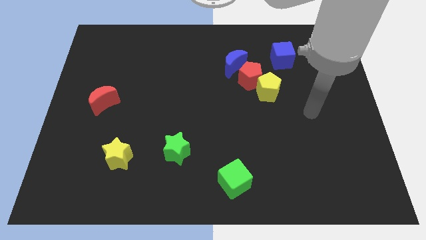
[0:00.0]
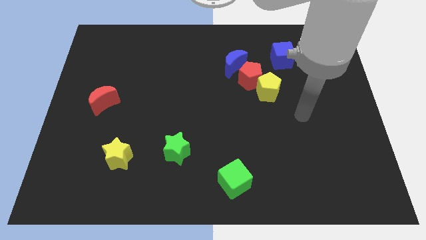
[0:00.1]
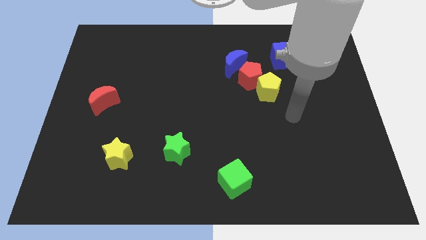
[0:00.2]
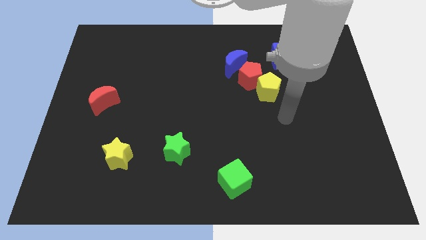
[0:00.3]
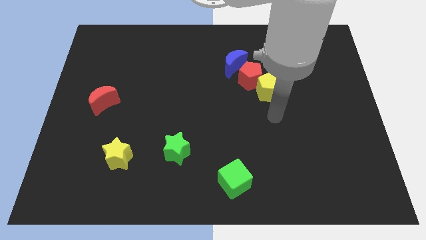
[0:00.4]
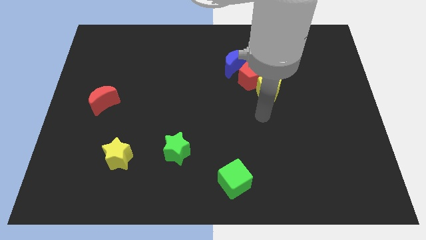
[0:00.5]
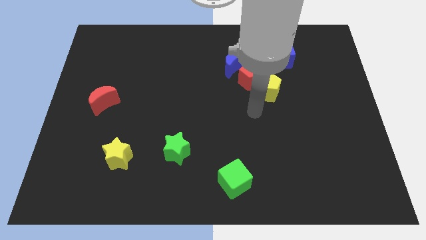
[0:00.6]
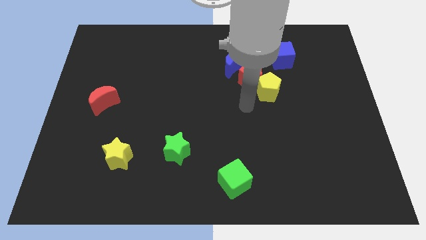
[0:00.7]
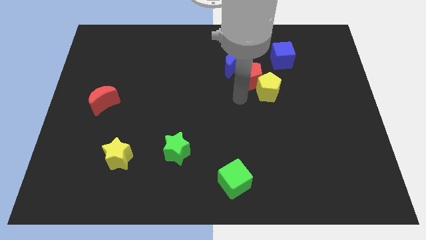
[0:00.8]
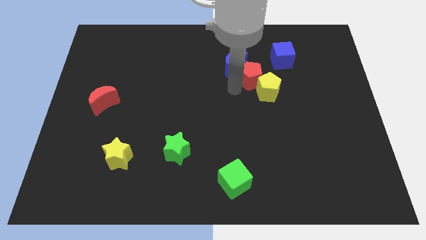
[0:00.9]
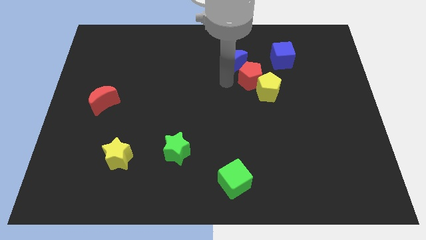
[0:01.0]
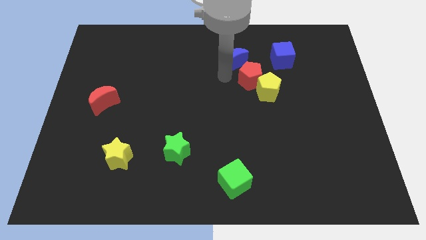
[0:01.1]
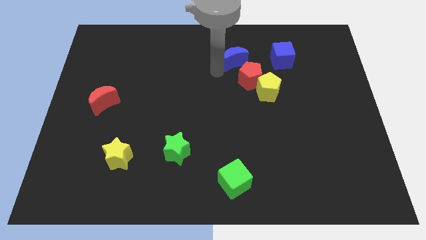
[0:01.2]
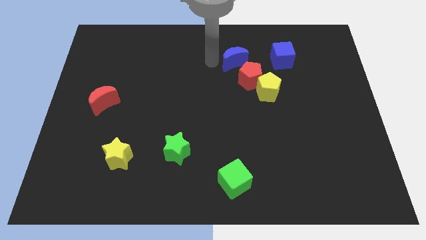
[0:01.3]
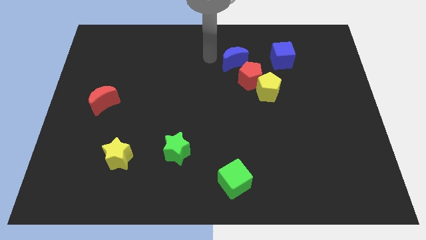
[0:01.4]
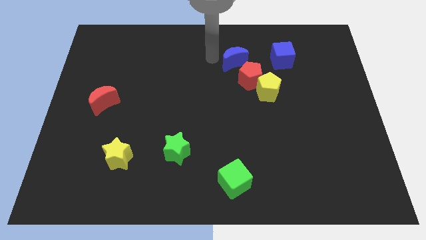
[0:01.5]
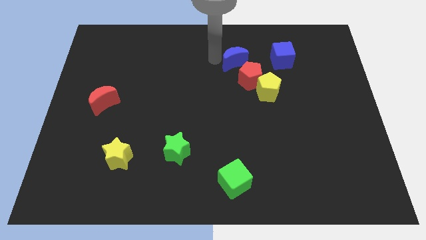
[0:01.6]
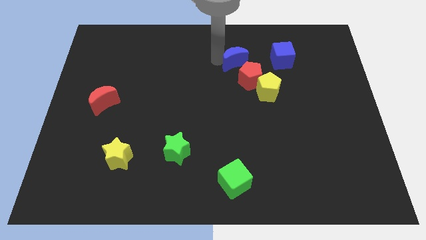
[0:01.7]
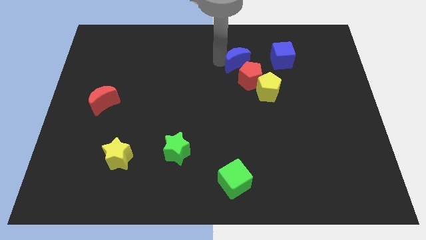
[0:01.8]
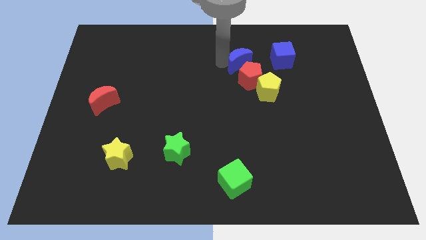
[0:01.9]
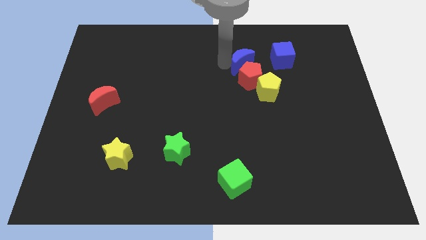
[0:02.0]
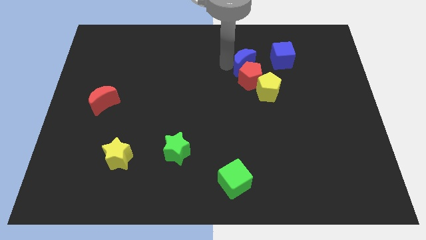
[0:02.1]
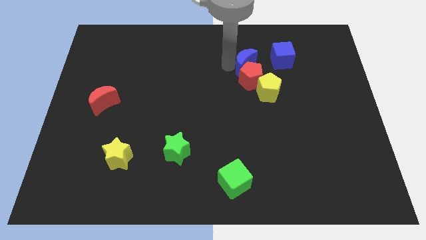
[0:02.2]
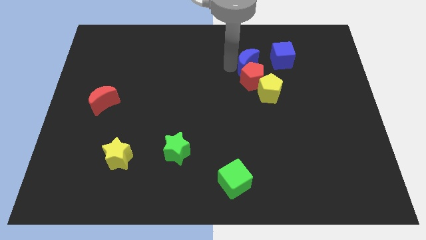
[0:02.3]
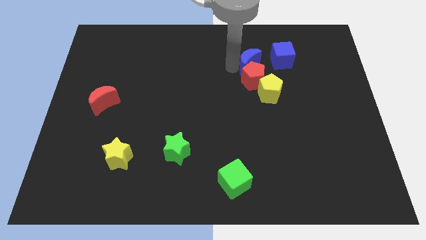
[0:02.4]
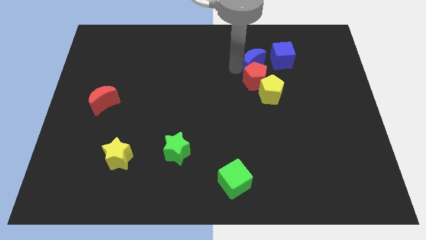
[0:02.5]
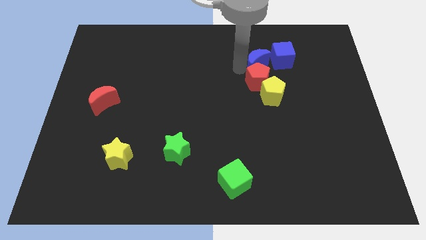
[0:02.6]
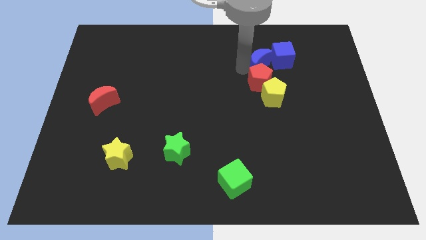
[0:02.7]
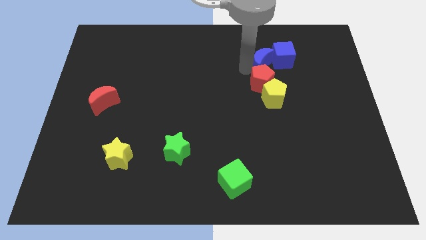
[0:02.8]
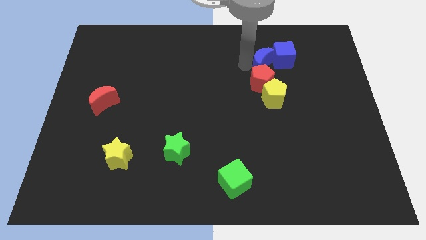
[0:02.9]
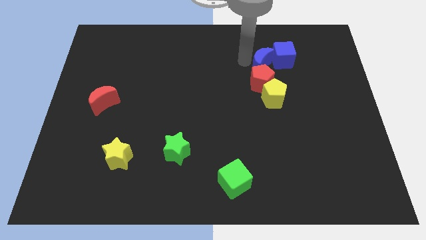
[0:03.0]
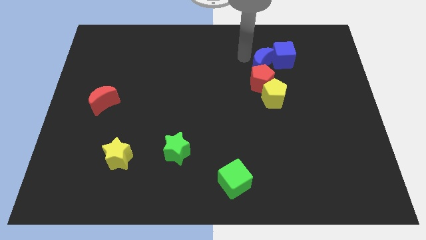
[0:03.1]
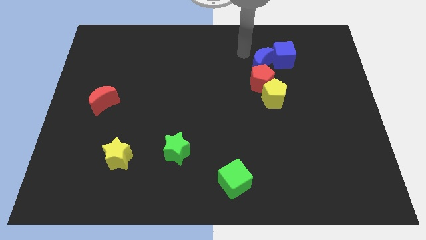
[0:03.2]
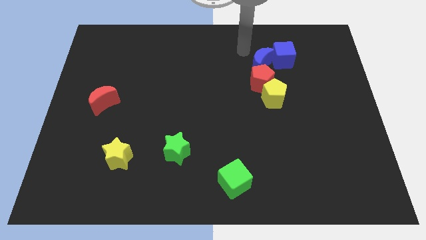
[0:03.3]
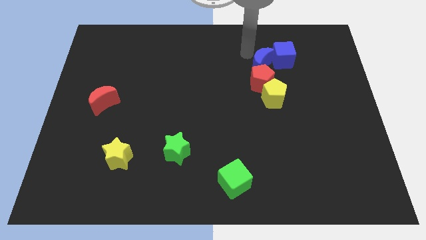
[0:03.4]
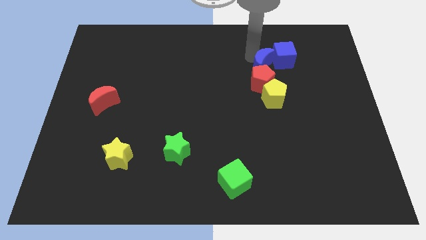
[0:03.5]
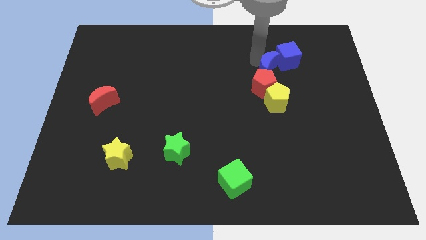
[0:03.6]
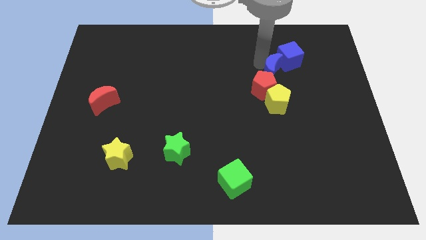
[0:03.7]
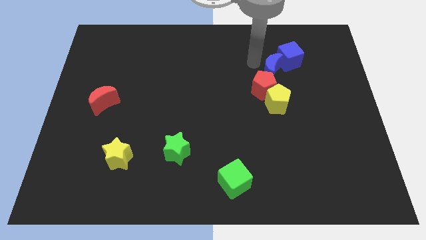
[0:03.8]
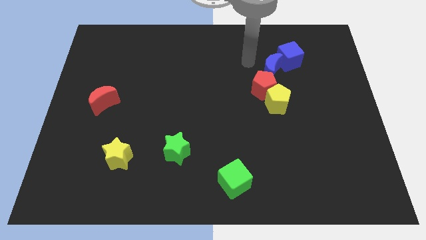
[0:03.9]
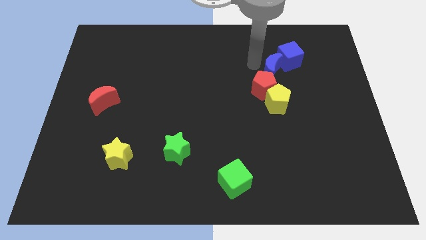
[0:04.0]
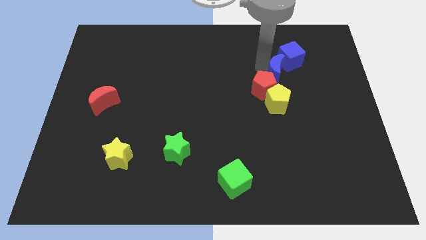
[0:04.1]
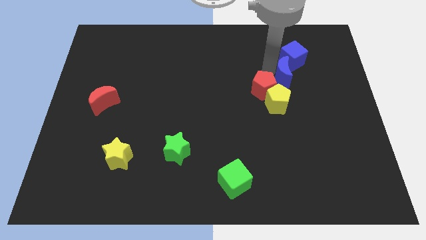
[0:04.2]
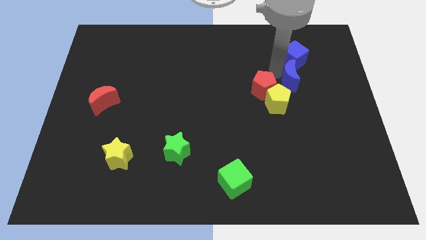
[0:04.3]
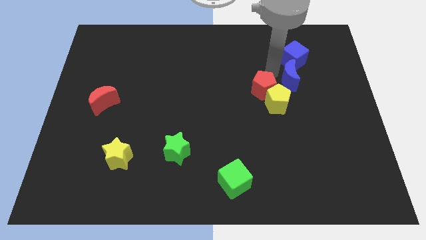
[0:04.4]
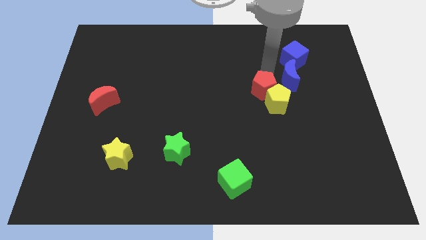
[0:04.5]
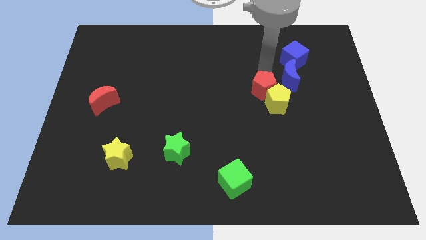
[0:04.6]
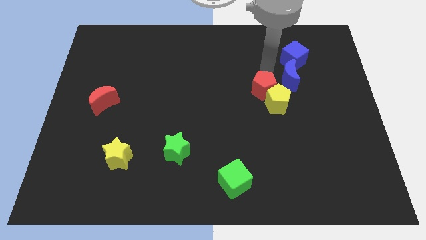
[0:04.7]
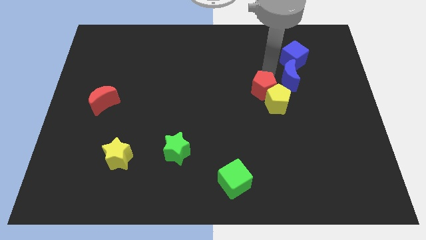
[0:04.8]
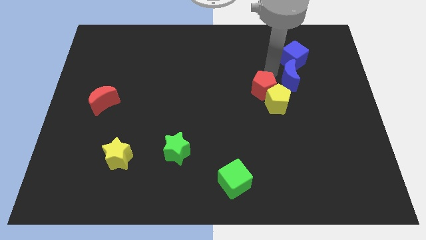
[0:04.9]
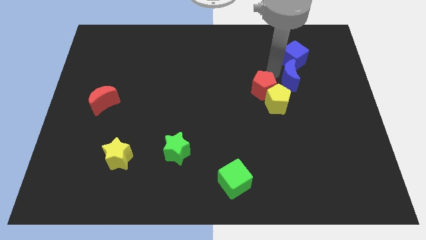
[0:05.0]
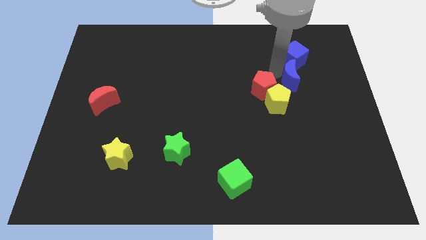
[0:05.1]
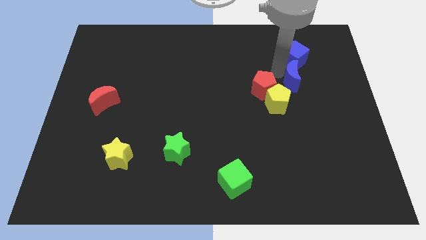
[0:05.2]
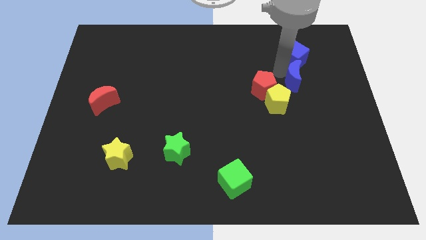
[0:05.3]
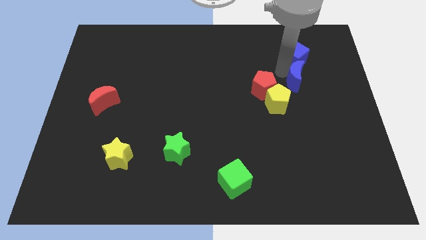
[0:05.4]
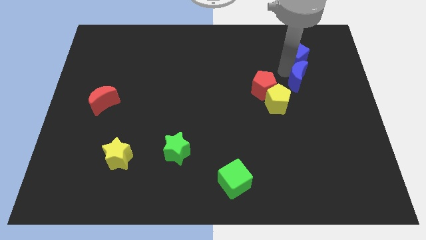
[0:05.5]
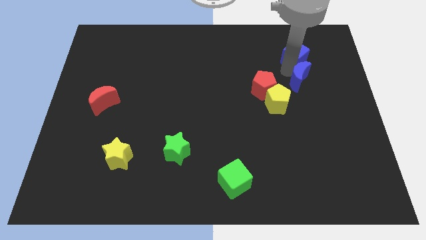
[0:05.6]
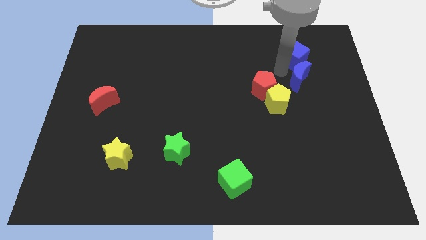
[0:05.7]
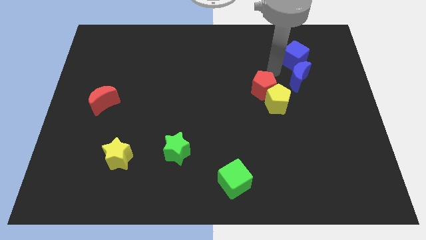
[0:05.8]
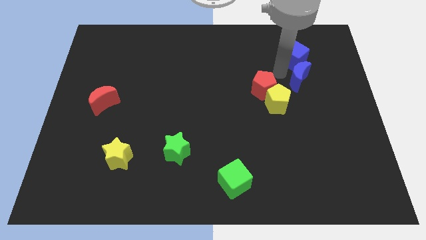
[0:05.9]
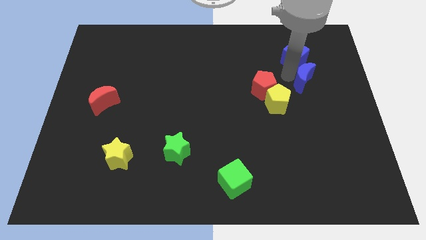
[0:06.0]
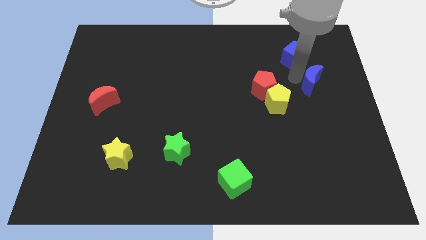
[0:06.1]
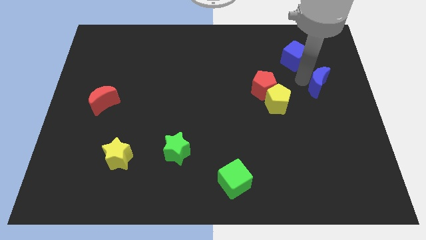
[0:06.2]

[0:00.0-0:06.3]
move the blue moon to the center right
